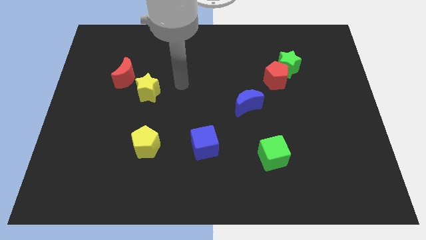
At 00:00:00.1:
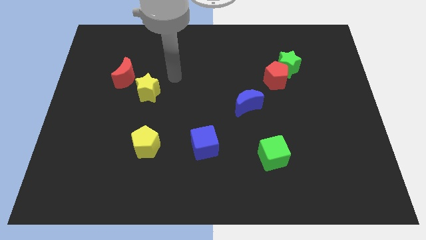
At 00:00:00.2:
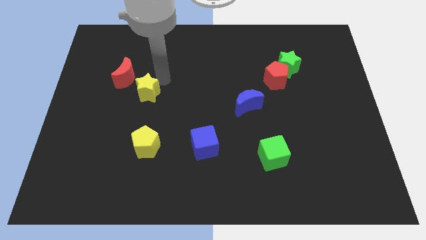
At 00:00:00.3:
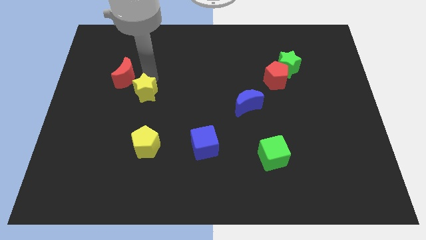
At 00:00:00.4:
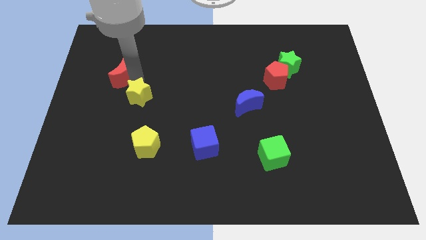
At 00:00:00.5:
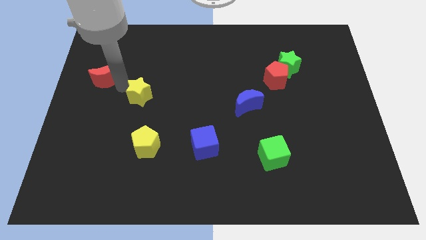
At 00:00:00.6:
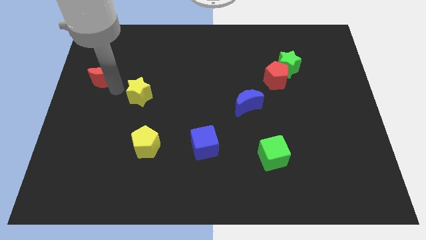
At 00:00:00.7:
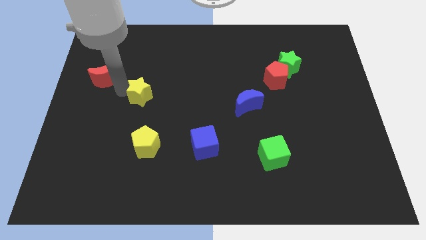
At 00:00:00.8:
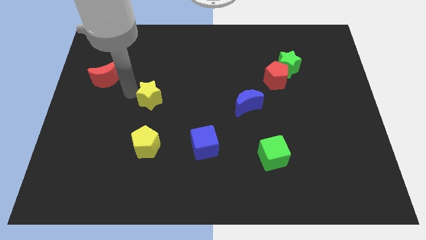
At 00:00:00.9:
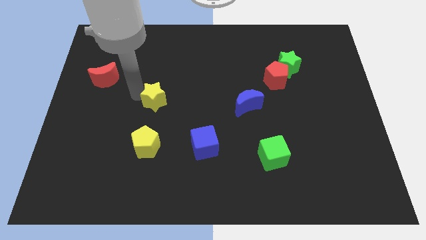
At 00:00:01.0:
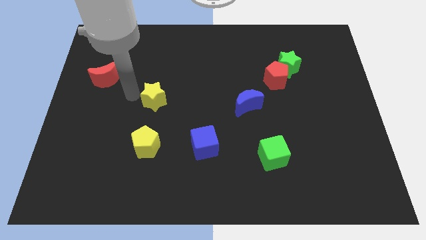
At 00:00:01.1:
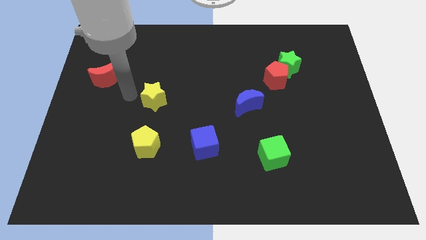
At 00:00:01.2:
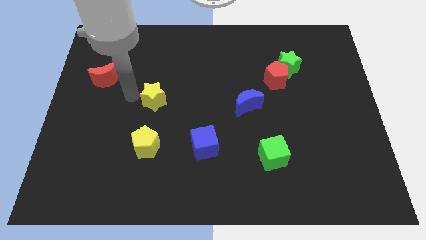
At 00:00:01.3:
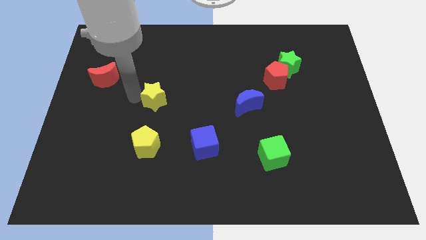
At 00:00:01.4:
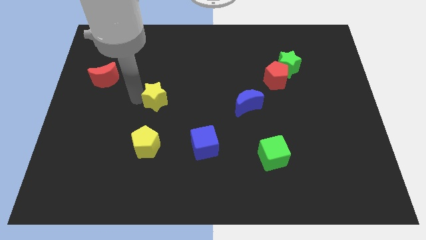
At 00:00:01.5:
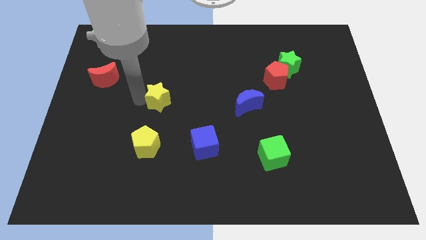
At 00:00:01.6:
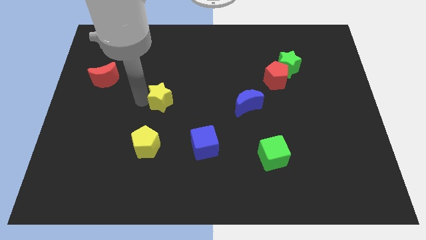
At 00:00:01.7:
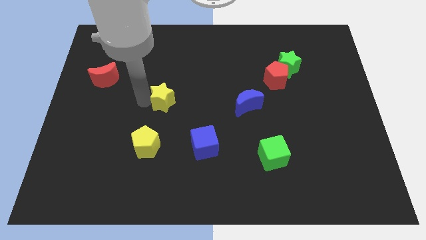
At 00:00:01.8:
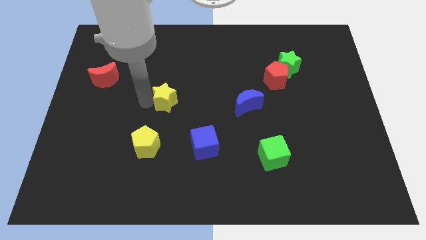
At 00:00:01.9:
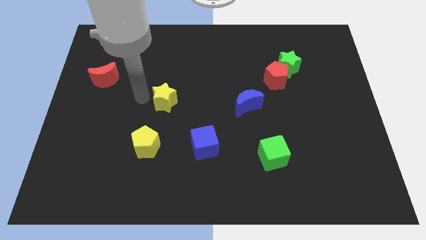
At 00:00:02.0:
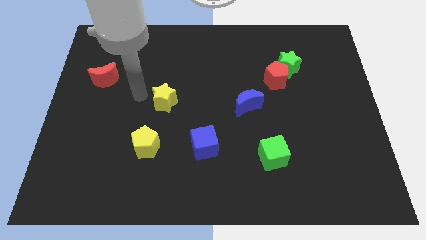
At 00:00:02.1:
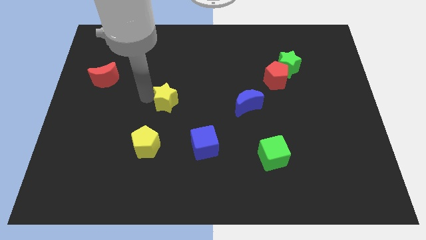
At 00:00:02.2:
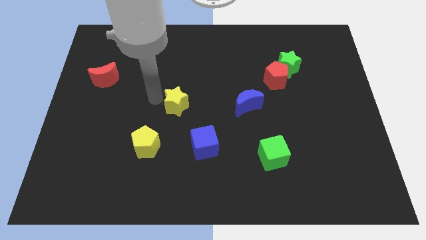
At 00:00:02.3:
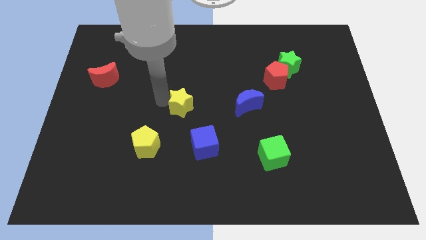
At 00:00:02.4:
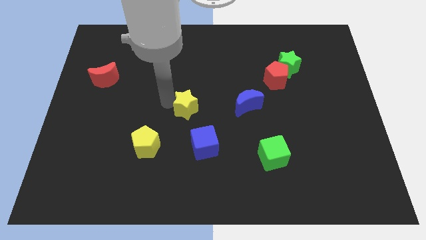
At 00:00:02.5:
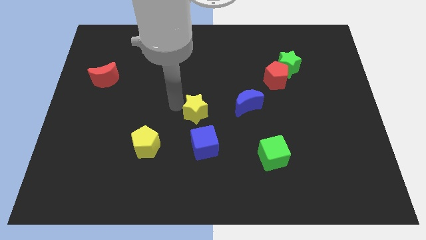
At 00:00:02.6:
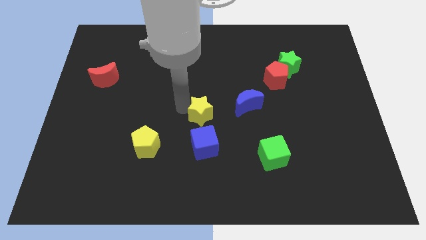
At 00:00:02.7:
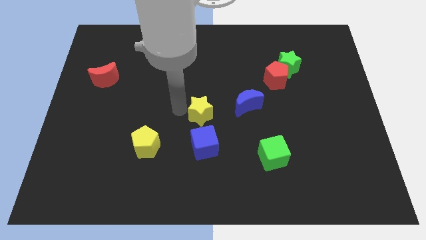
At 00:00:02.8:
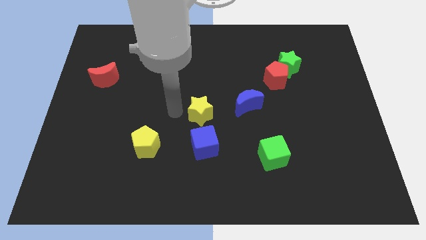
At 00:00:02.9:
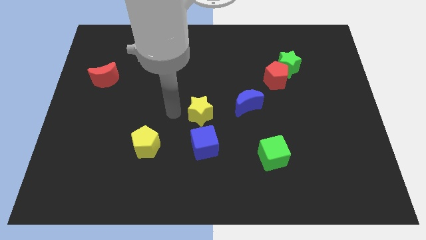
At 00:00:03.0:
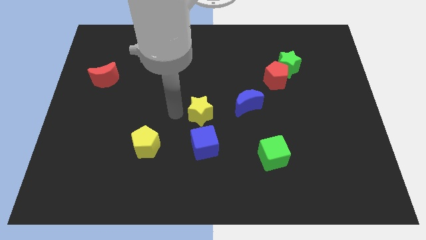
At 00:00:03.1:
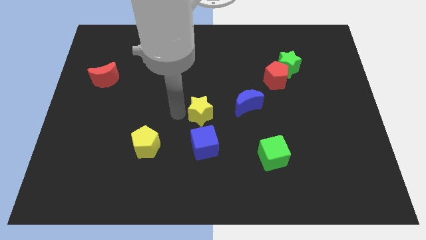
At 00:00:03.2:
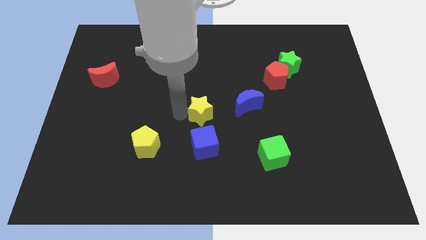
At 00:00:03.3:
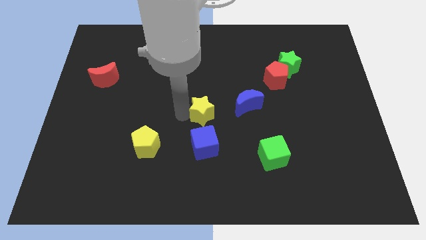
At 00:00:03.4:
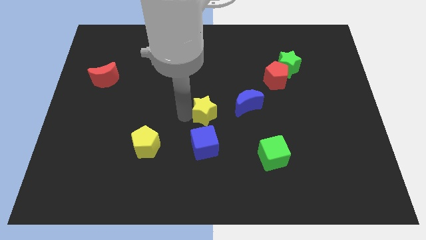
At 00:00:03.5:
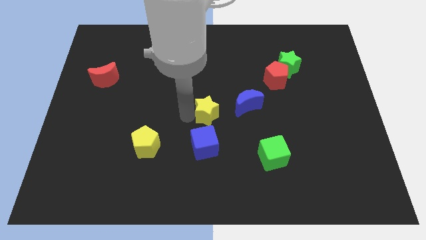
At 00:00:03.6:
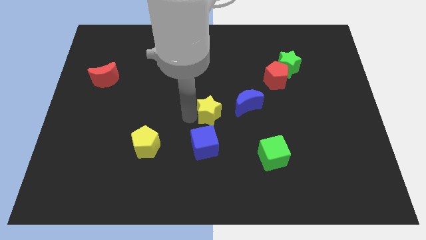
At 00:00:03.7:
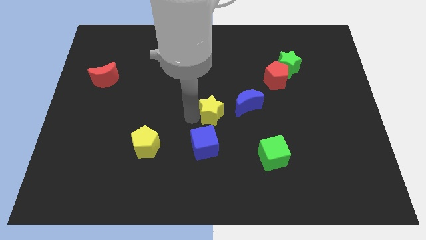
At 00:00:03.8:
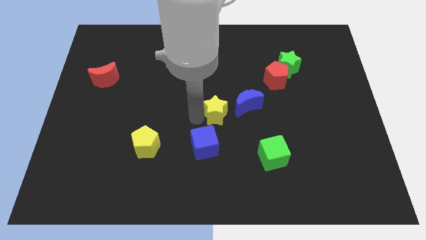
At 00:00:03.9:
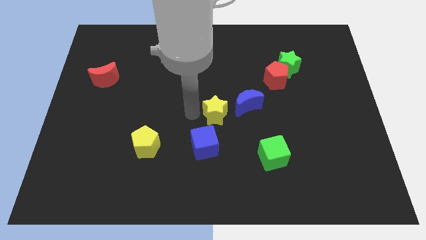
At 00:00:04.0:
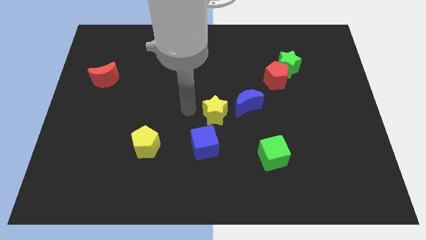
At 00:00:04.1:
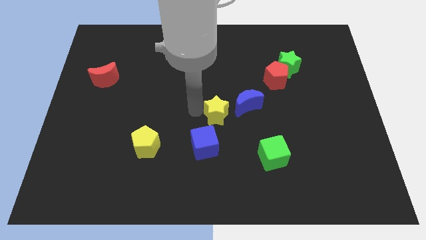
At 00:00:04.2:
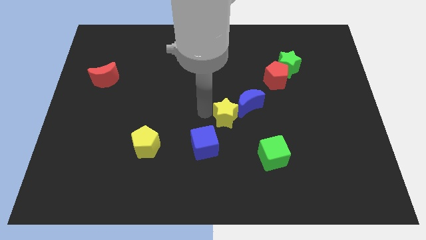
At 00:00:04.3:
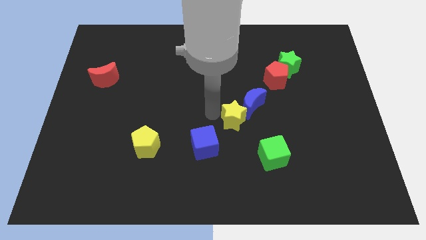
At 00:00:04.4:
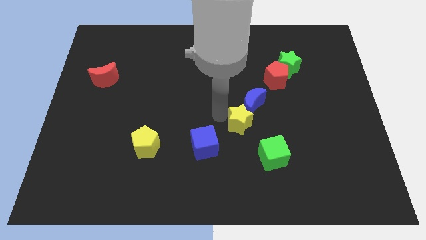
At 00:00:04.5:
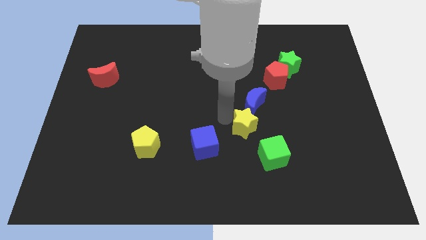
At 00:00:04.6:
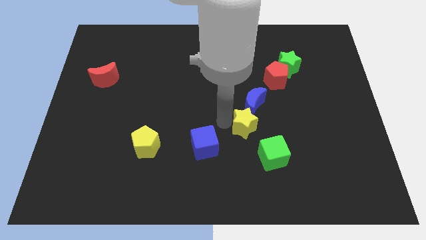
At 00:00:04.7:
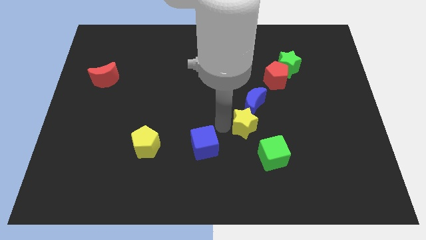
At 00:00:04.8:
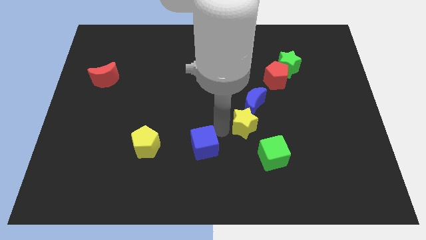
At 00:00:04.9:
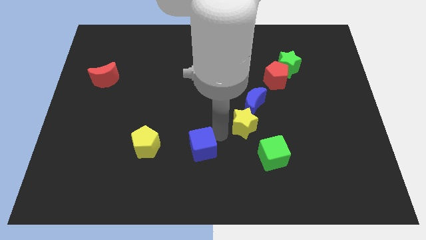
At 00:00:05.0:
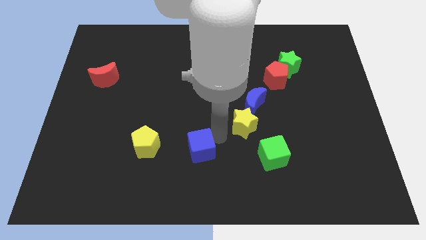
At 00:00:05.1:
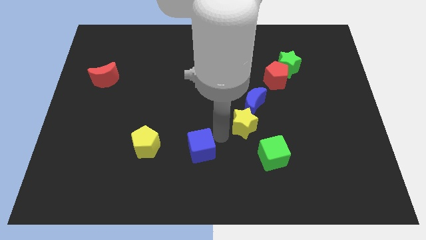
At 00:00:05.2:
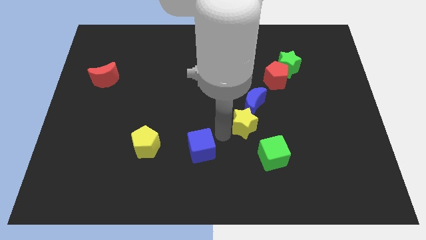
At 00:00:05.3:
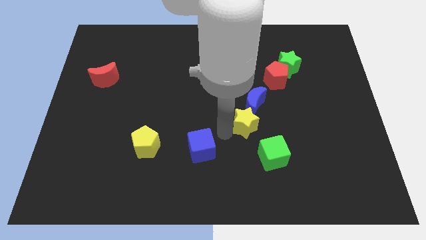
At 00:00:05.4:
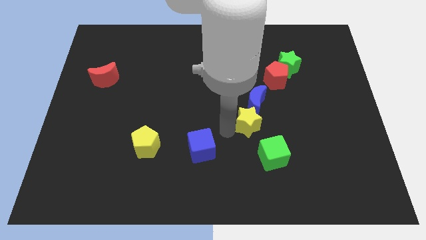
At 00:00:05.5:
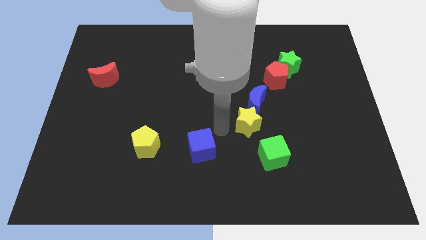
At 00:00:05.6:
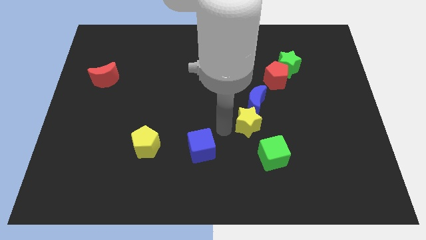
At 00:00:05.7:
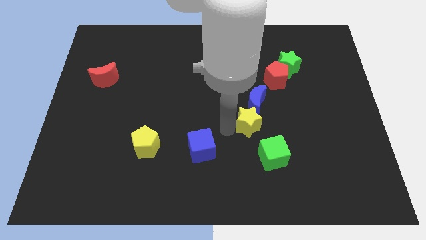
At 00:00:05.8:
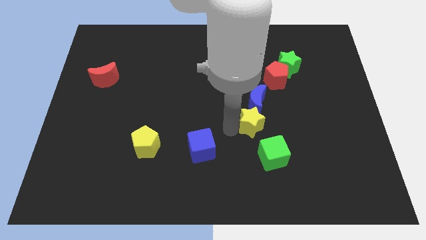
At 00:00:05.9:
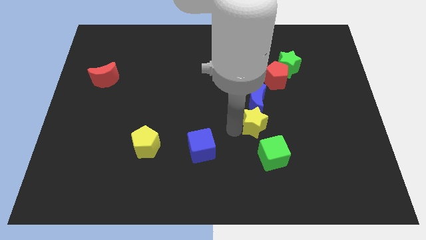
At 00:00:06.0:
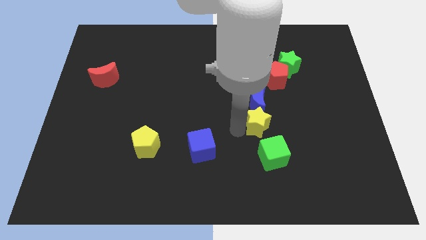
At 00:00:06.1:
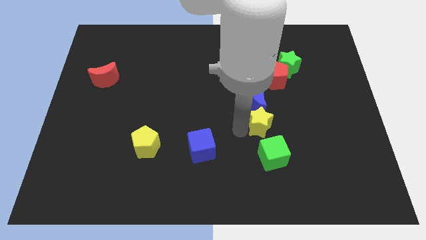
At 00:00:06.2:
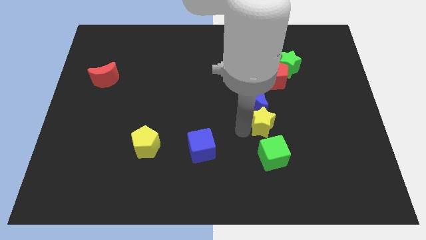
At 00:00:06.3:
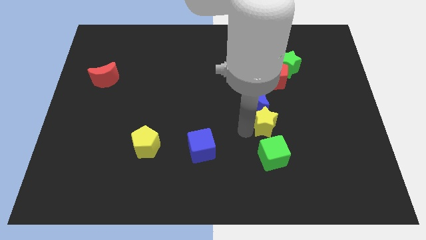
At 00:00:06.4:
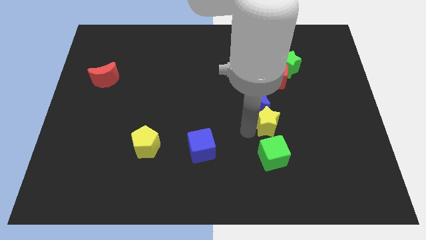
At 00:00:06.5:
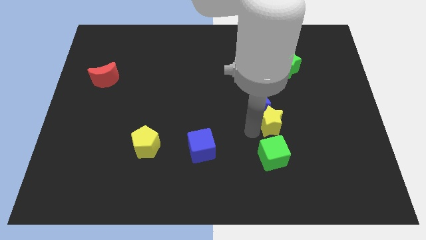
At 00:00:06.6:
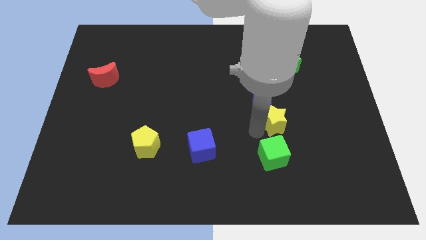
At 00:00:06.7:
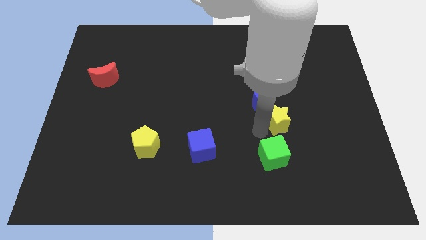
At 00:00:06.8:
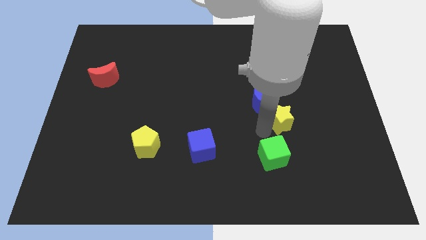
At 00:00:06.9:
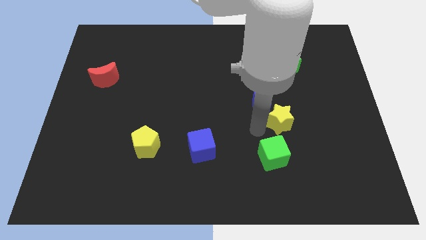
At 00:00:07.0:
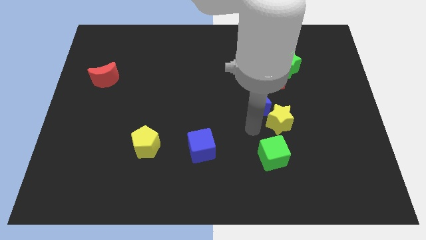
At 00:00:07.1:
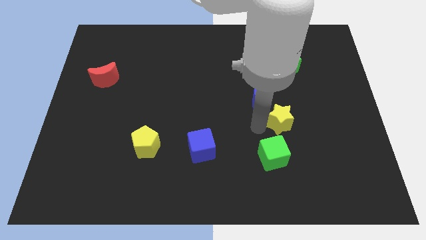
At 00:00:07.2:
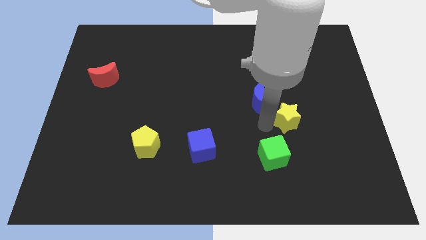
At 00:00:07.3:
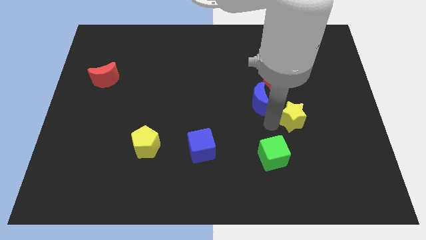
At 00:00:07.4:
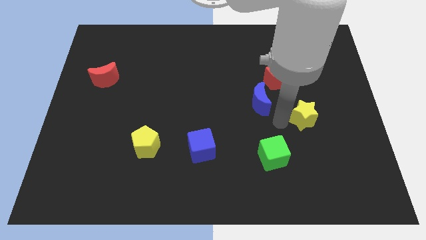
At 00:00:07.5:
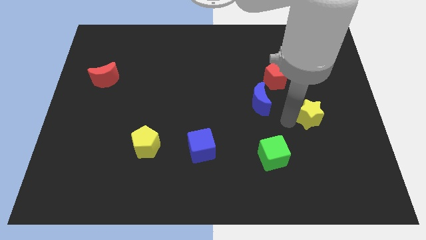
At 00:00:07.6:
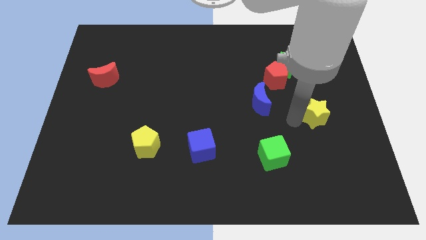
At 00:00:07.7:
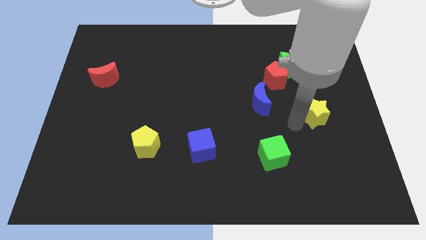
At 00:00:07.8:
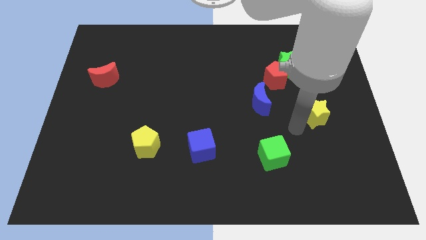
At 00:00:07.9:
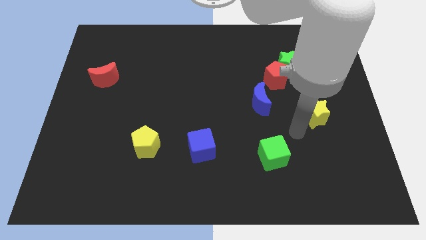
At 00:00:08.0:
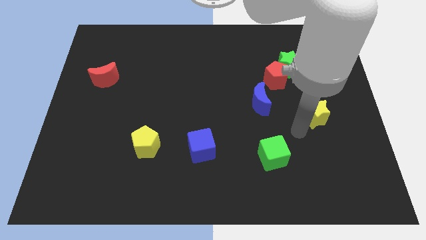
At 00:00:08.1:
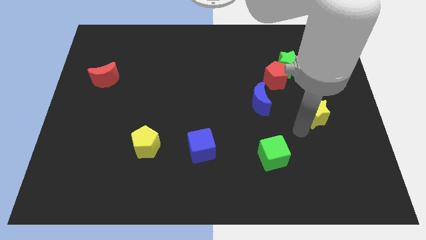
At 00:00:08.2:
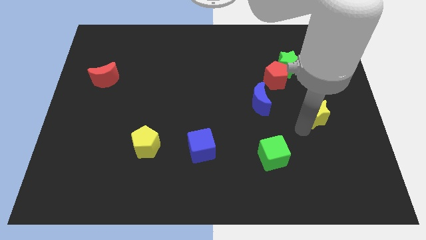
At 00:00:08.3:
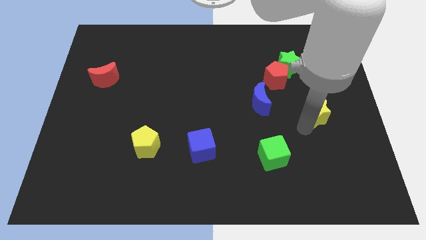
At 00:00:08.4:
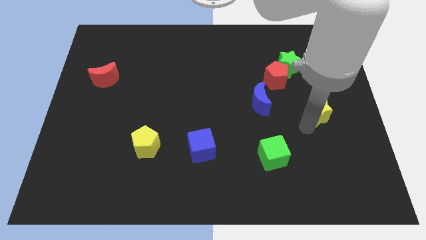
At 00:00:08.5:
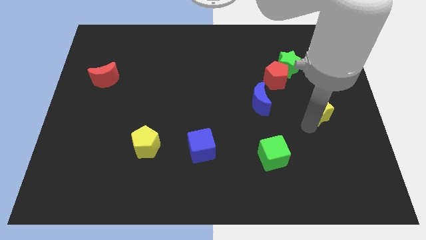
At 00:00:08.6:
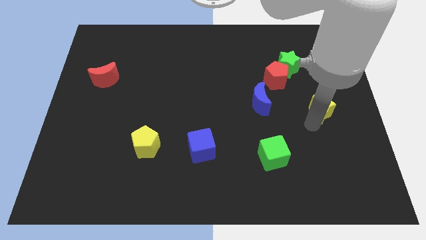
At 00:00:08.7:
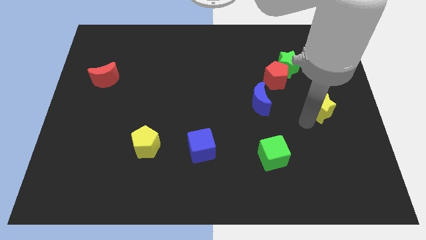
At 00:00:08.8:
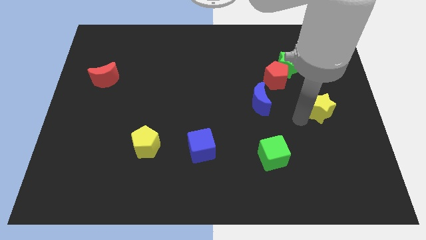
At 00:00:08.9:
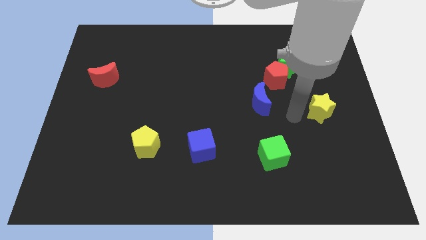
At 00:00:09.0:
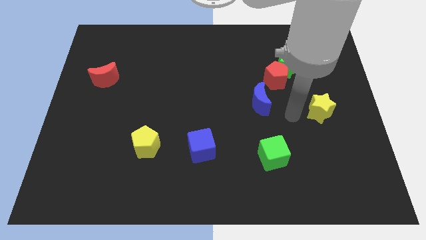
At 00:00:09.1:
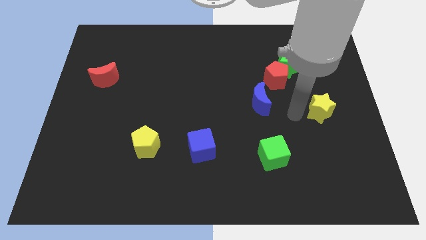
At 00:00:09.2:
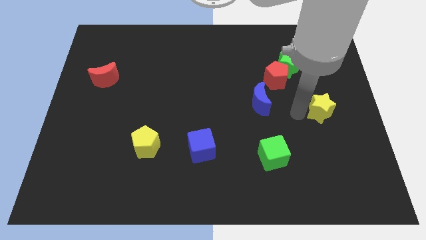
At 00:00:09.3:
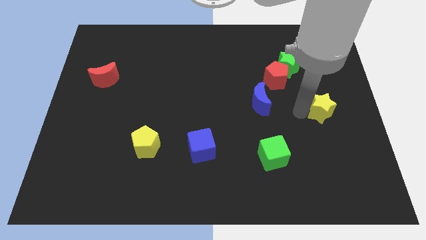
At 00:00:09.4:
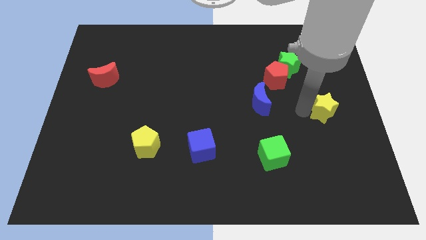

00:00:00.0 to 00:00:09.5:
put the yellow star to the right side of the board
